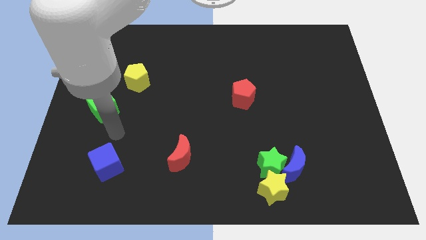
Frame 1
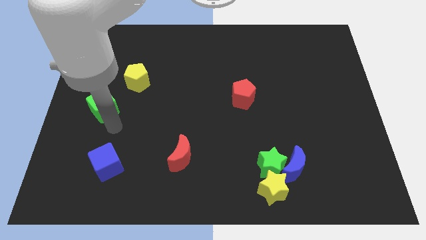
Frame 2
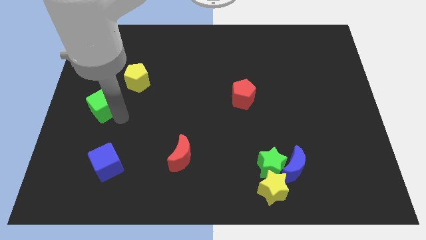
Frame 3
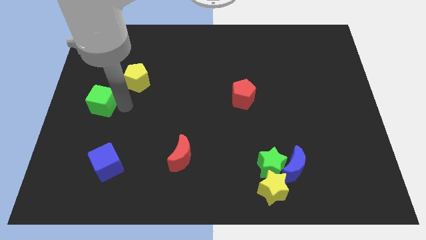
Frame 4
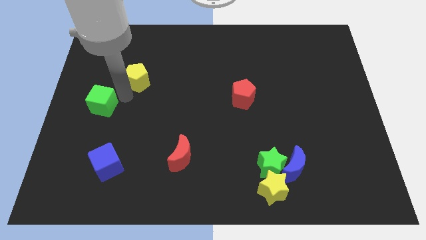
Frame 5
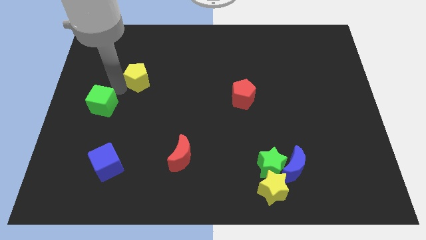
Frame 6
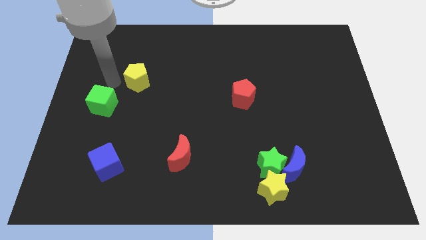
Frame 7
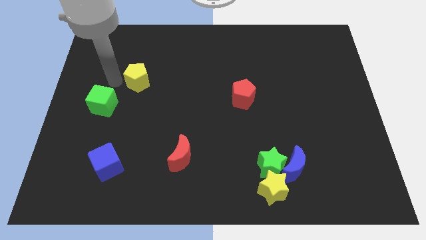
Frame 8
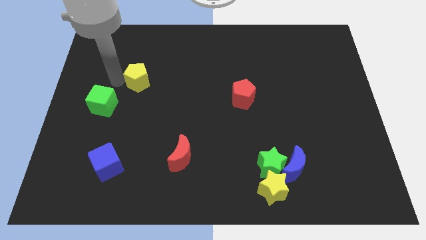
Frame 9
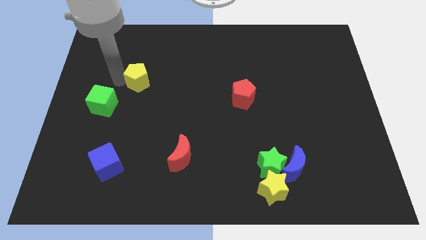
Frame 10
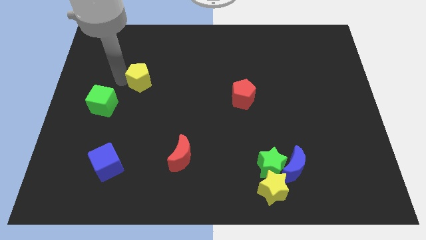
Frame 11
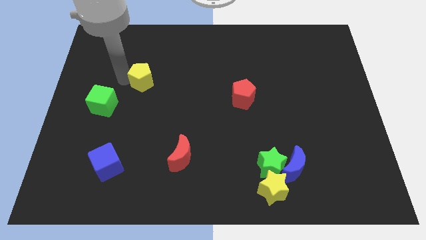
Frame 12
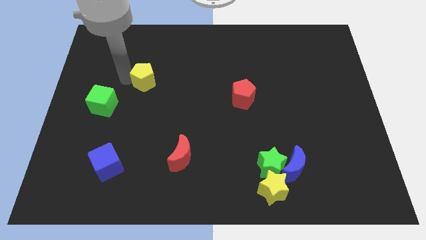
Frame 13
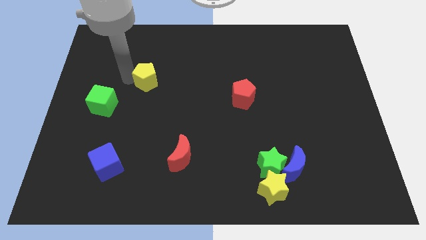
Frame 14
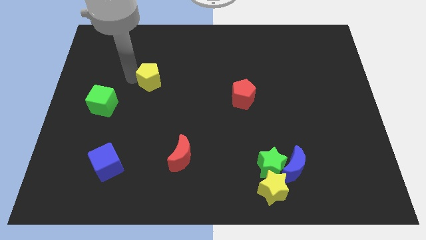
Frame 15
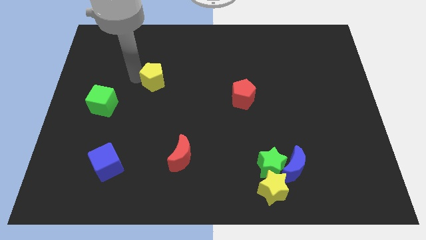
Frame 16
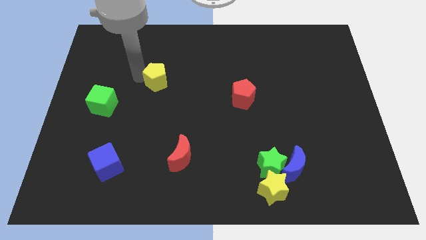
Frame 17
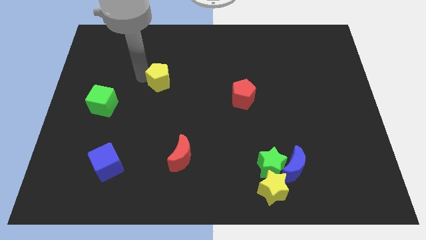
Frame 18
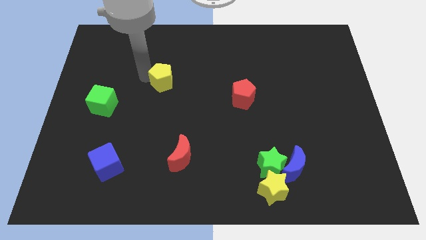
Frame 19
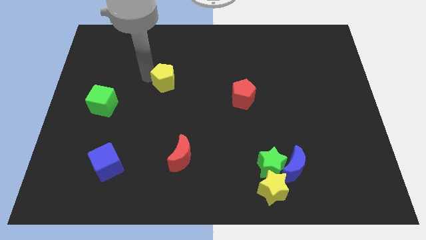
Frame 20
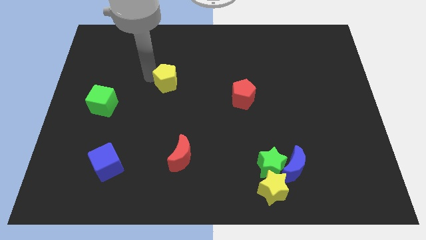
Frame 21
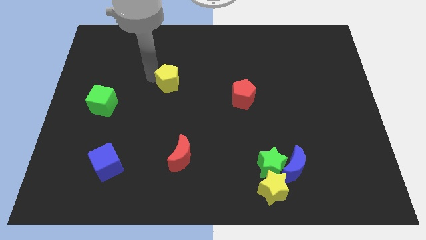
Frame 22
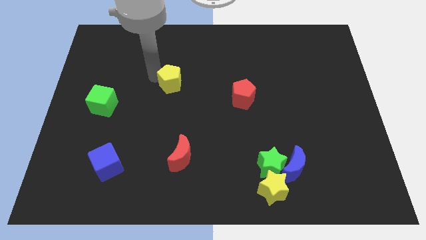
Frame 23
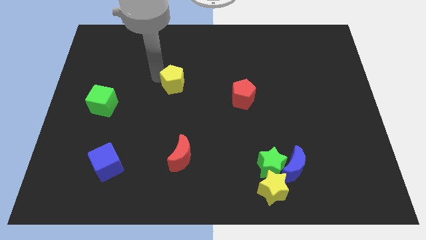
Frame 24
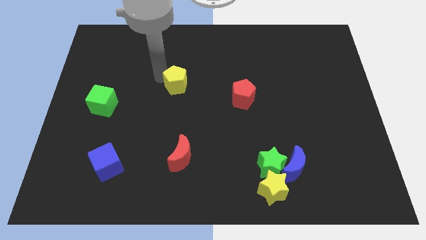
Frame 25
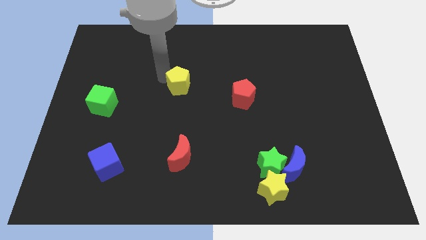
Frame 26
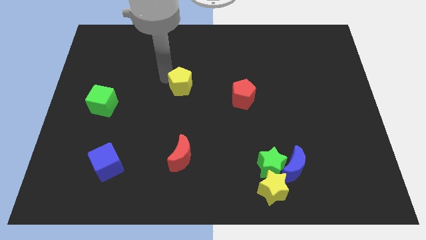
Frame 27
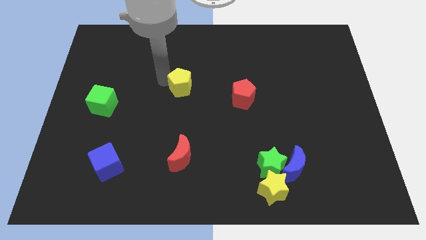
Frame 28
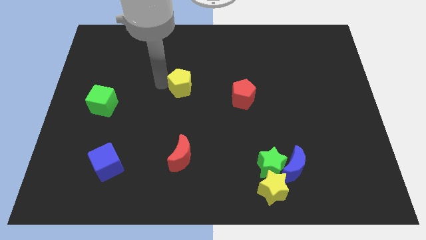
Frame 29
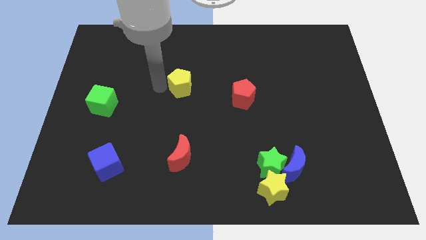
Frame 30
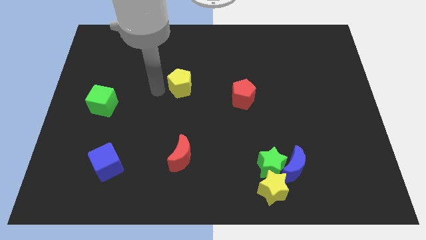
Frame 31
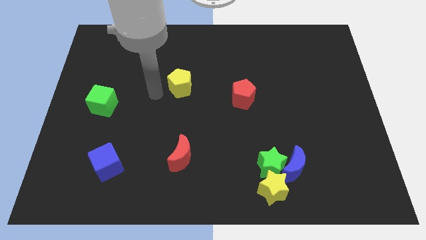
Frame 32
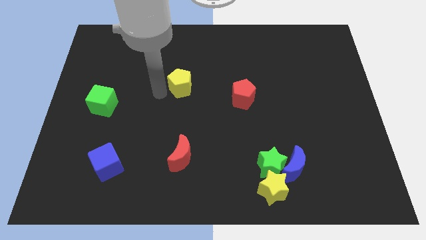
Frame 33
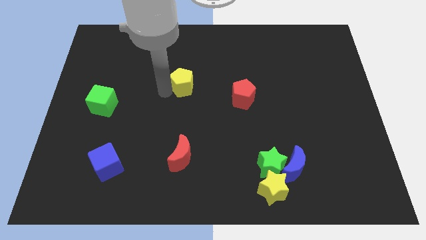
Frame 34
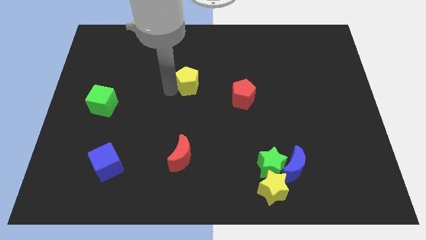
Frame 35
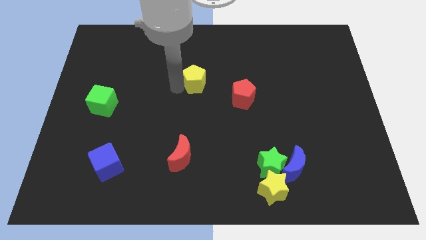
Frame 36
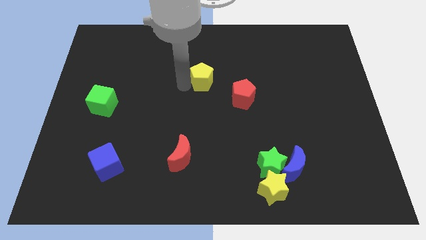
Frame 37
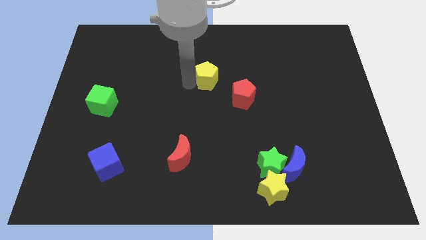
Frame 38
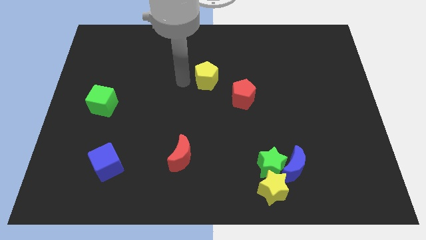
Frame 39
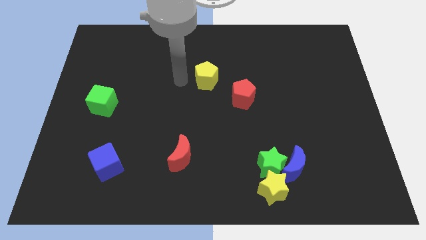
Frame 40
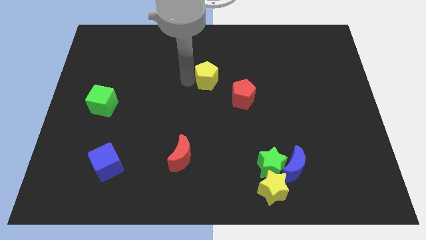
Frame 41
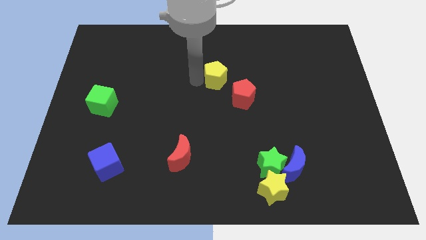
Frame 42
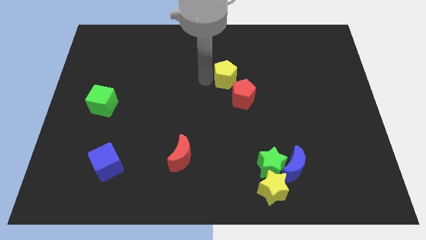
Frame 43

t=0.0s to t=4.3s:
slide the yellow pentagon to the right

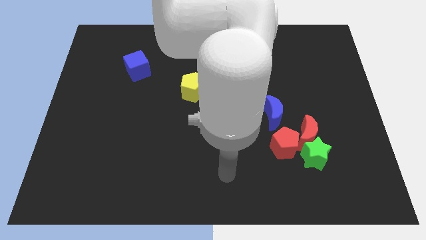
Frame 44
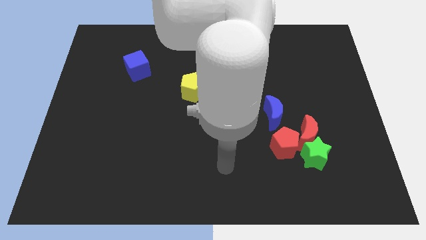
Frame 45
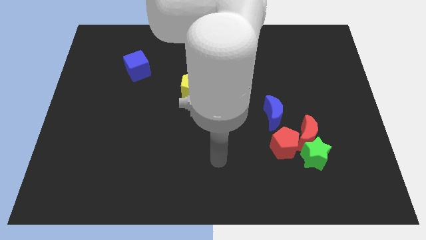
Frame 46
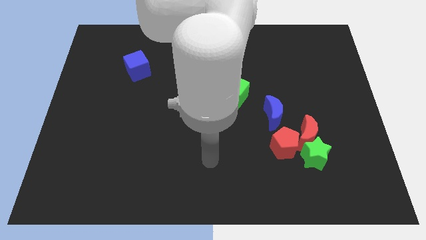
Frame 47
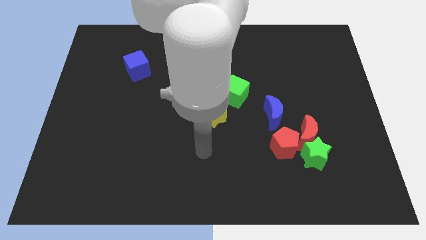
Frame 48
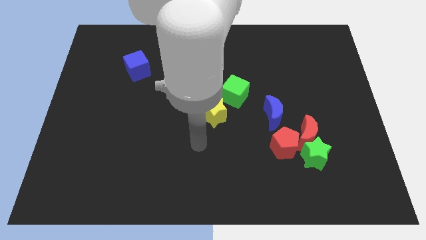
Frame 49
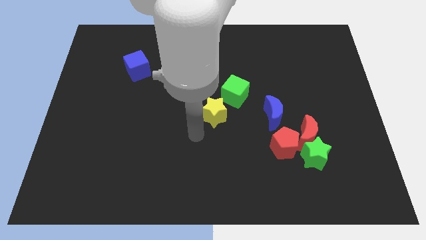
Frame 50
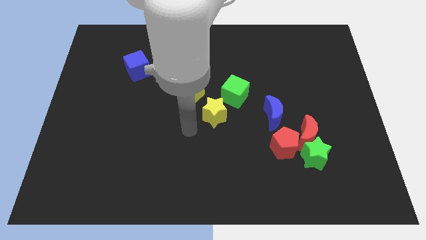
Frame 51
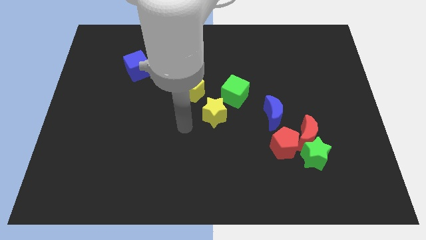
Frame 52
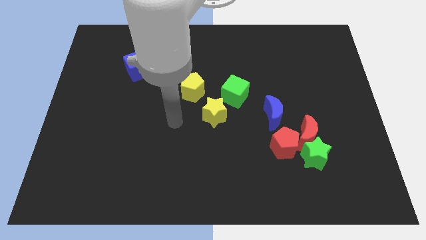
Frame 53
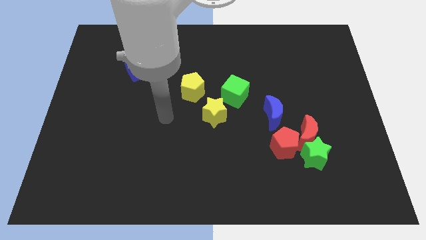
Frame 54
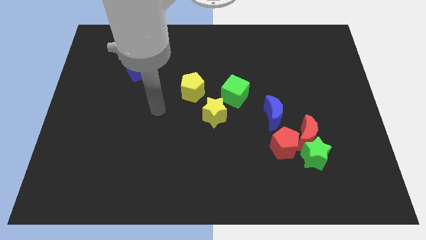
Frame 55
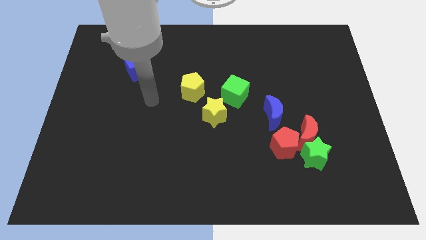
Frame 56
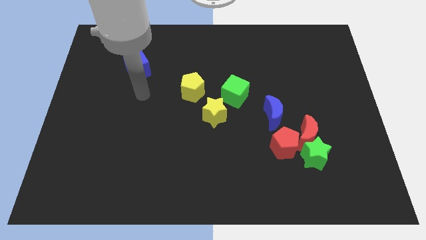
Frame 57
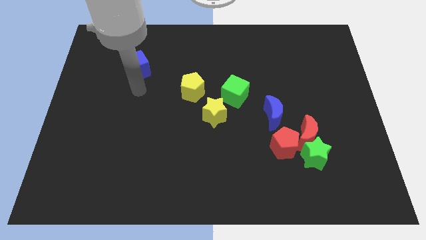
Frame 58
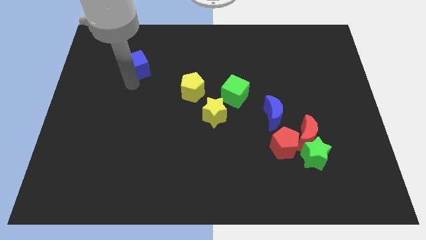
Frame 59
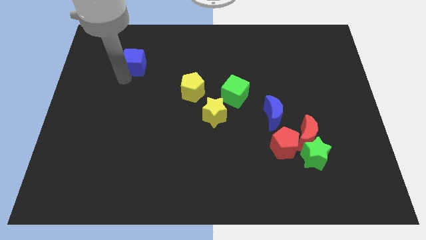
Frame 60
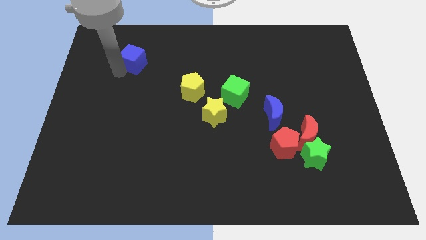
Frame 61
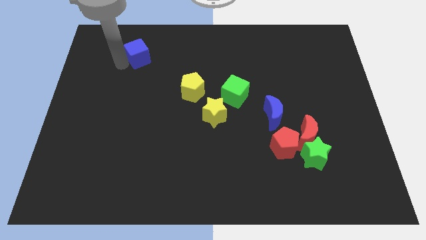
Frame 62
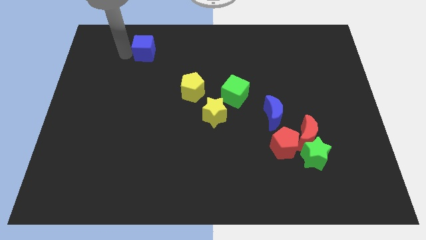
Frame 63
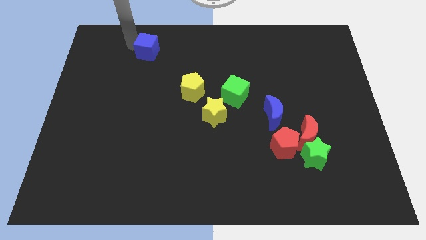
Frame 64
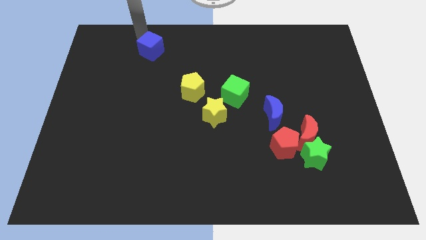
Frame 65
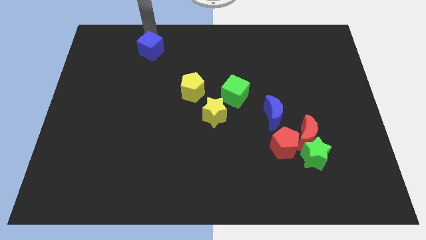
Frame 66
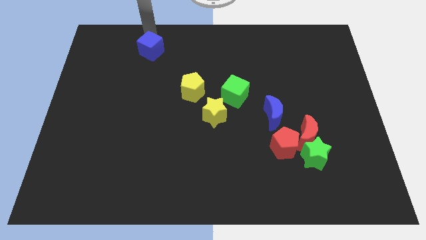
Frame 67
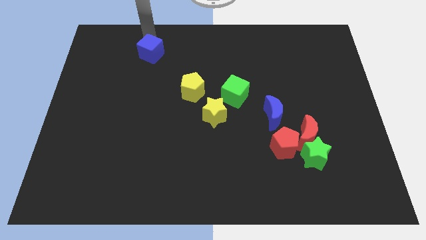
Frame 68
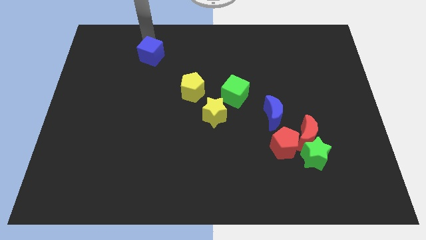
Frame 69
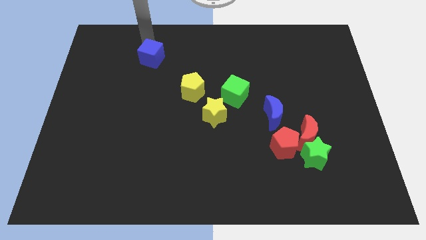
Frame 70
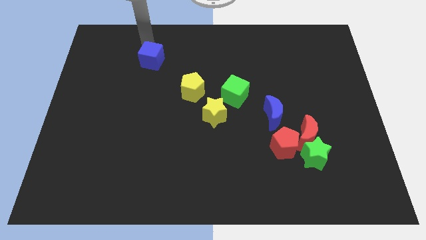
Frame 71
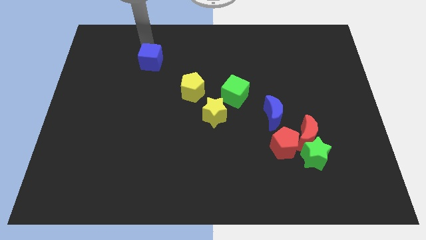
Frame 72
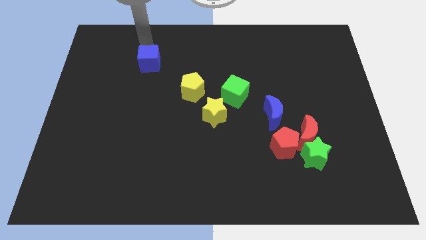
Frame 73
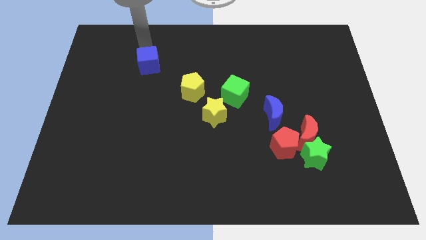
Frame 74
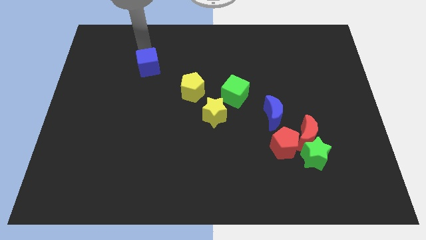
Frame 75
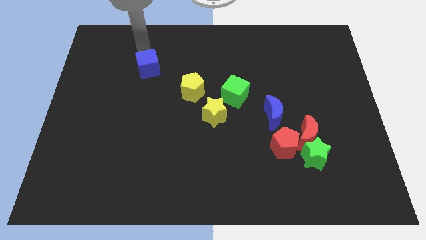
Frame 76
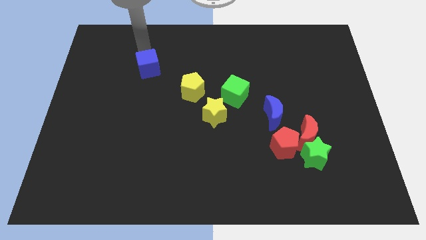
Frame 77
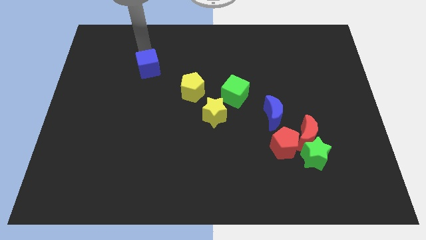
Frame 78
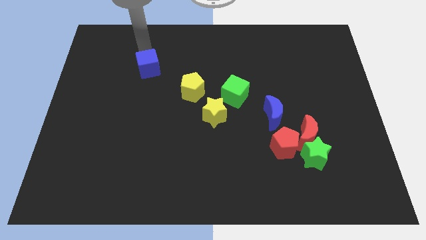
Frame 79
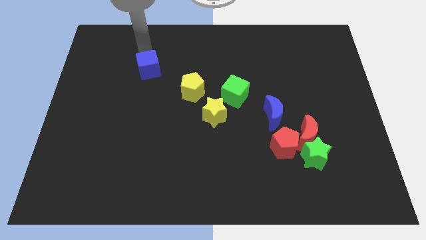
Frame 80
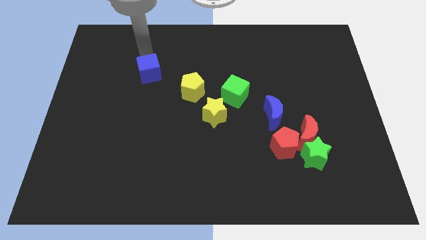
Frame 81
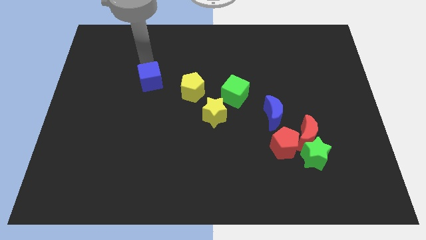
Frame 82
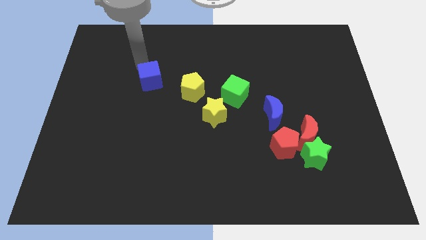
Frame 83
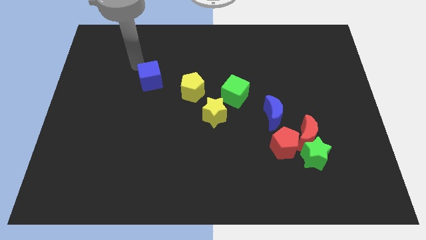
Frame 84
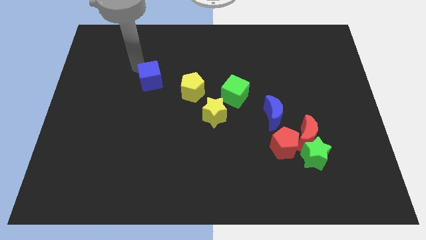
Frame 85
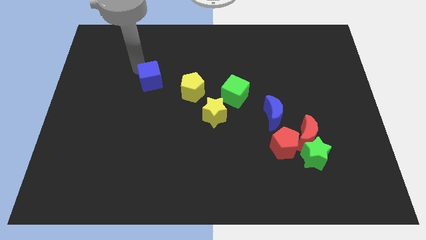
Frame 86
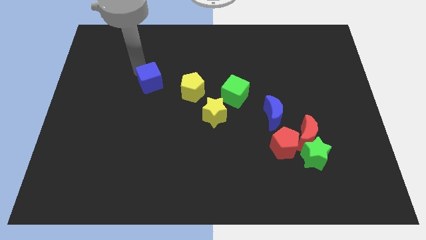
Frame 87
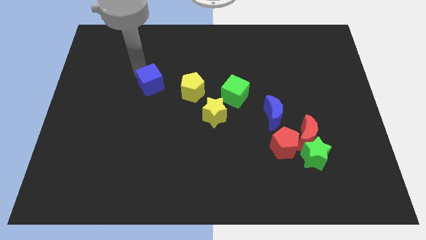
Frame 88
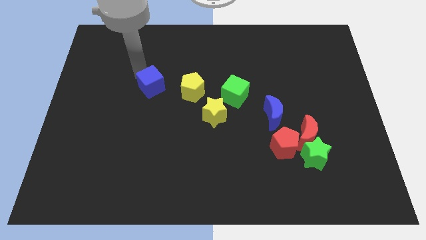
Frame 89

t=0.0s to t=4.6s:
slide the blue cube a little down and to the right diagonally
